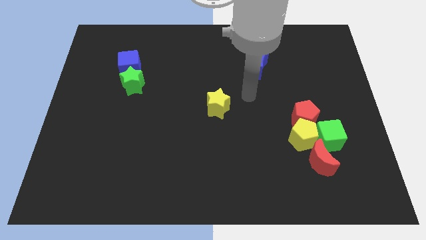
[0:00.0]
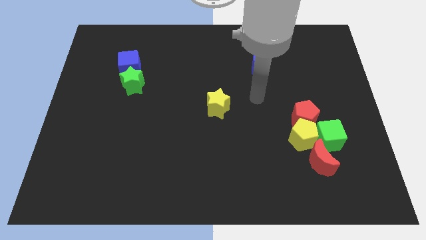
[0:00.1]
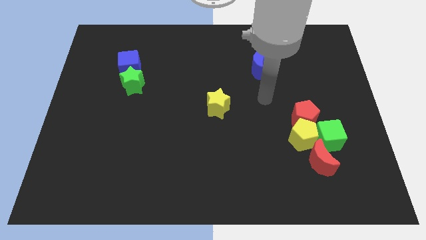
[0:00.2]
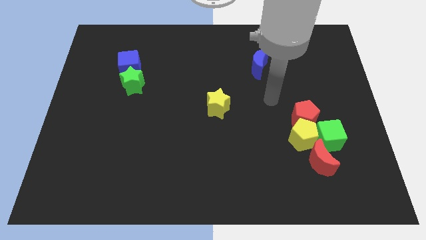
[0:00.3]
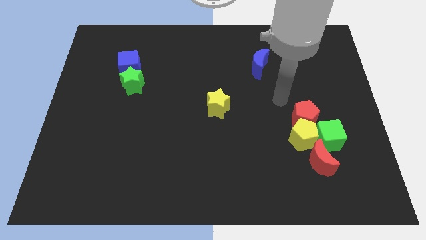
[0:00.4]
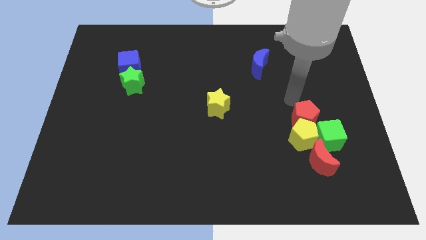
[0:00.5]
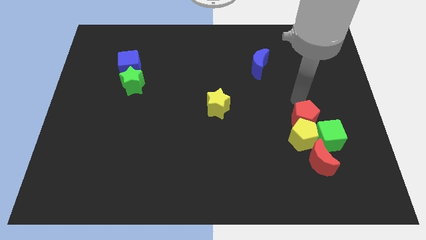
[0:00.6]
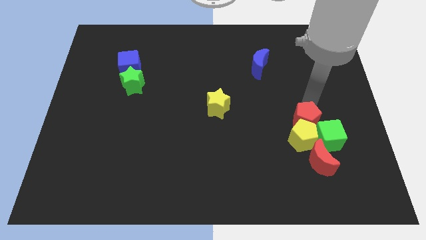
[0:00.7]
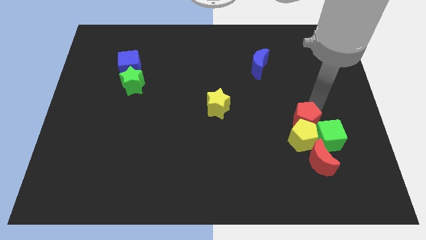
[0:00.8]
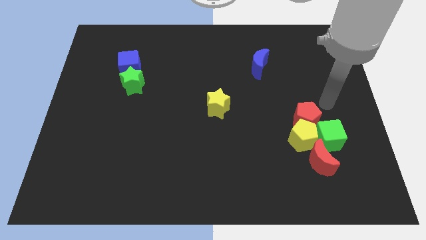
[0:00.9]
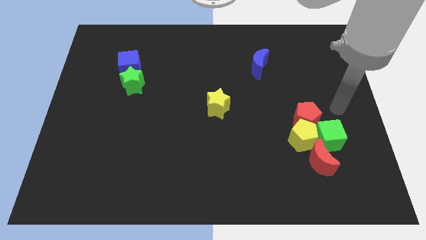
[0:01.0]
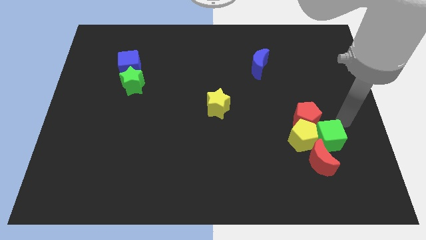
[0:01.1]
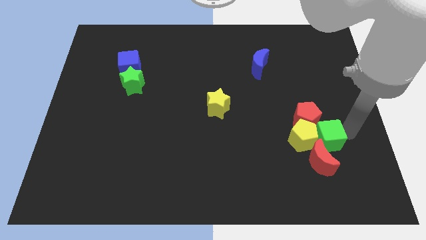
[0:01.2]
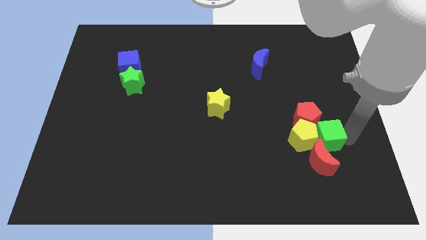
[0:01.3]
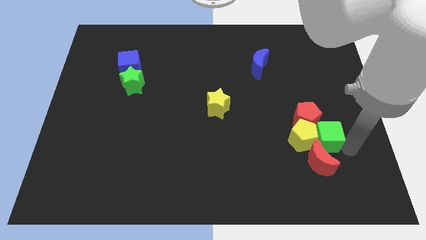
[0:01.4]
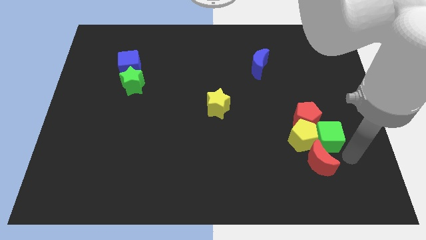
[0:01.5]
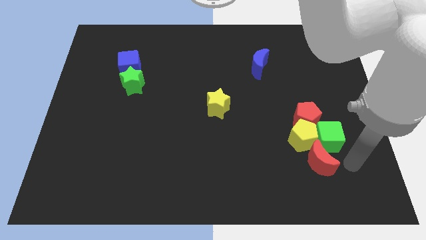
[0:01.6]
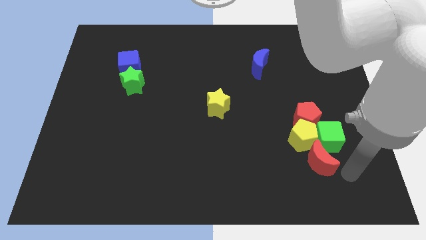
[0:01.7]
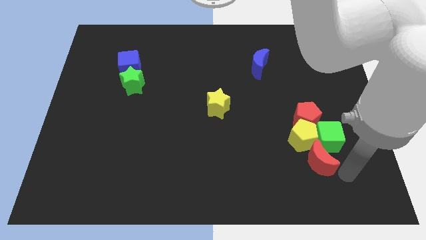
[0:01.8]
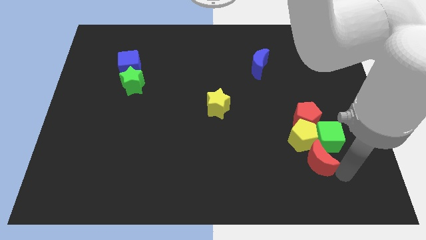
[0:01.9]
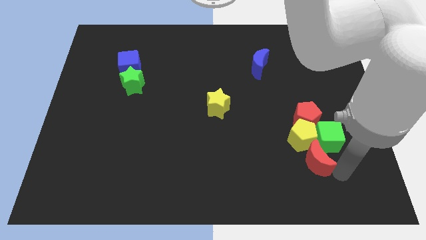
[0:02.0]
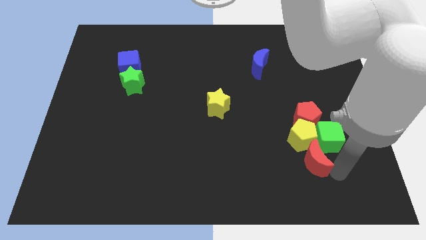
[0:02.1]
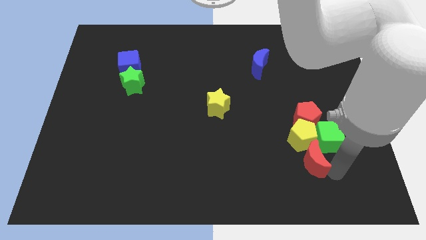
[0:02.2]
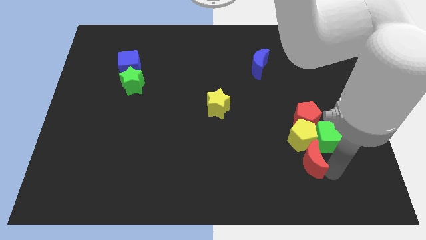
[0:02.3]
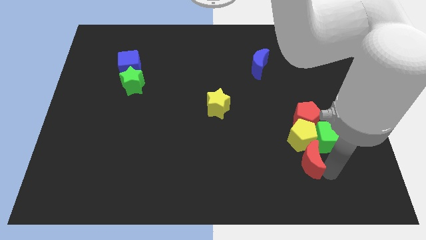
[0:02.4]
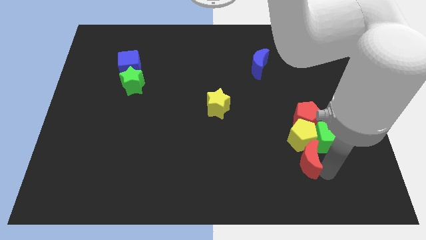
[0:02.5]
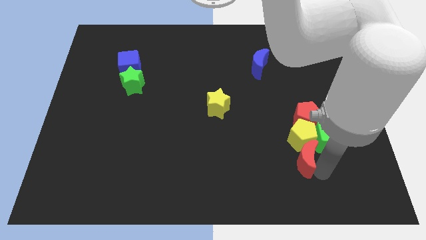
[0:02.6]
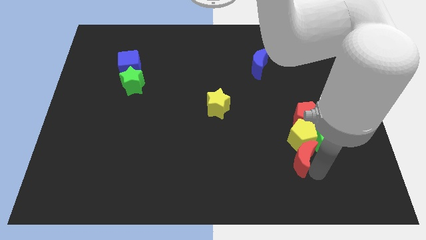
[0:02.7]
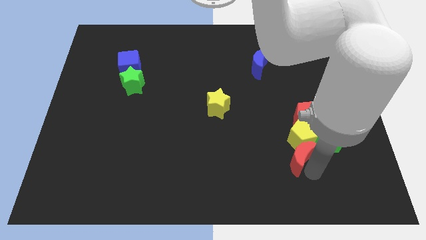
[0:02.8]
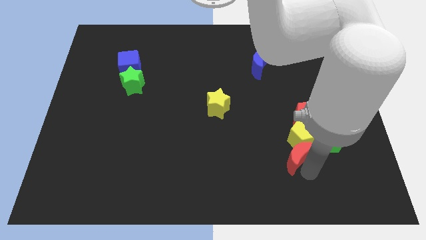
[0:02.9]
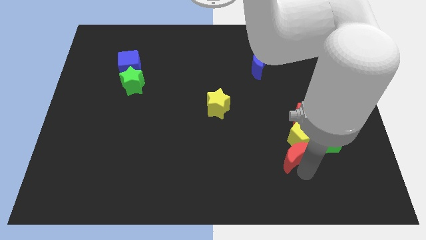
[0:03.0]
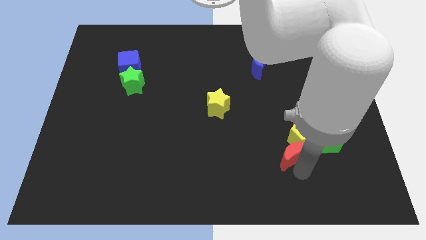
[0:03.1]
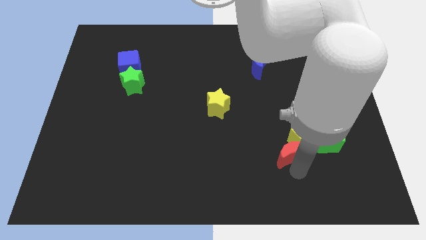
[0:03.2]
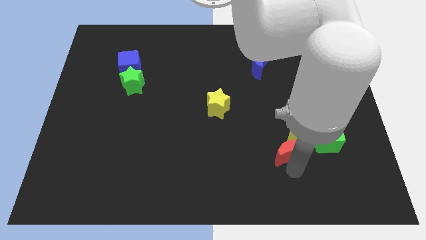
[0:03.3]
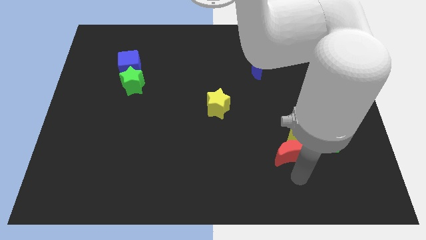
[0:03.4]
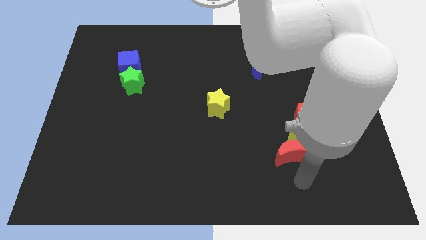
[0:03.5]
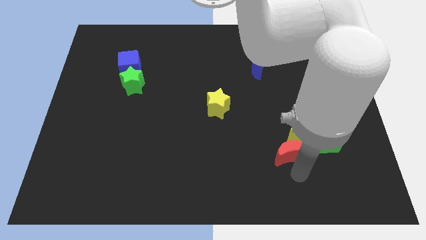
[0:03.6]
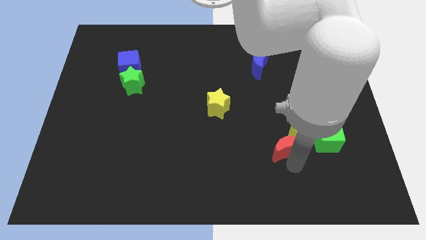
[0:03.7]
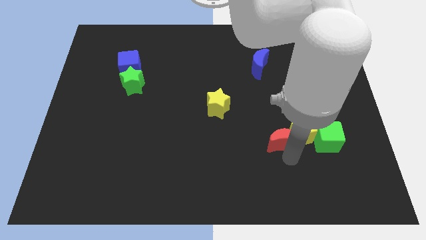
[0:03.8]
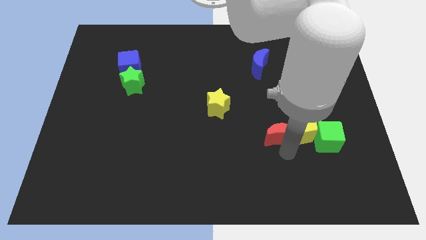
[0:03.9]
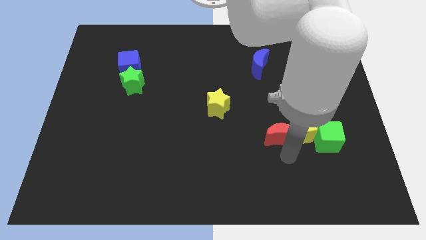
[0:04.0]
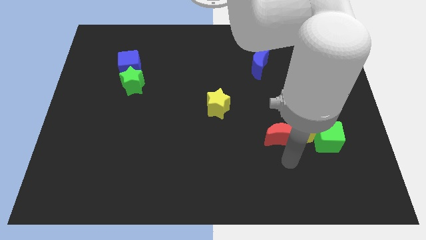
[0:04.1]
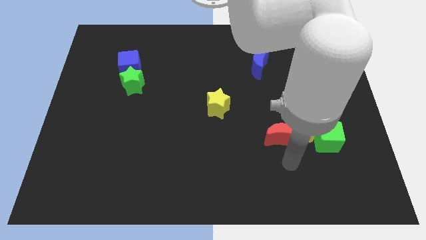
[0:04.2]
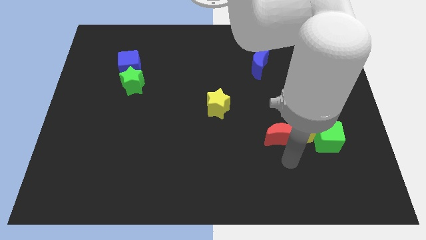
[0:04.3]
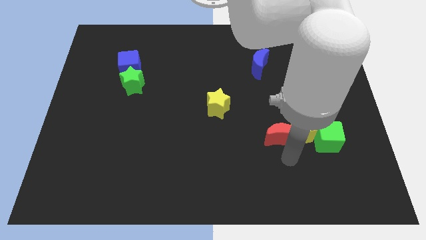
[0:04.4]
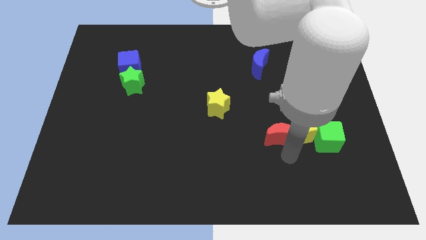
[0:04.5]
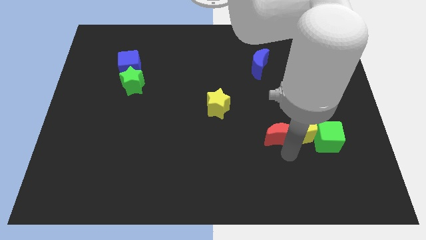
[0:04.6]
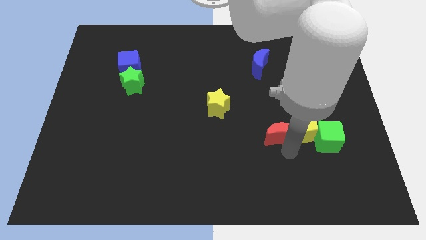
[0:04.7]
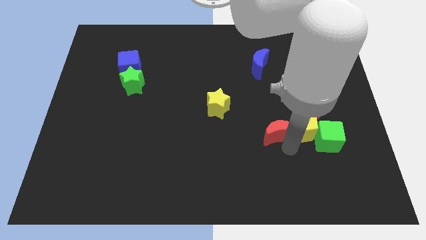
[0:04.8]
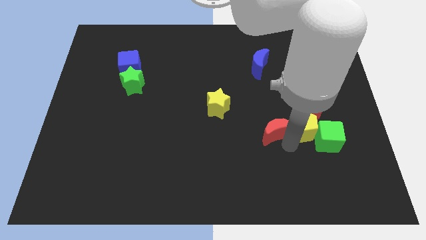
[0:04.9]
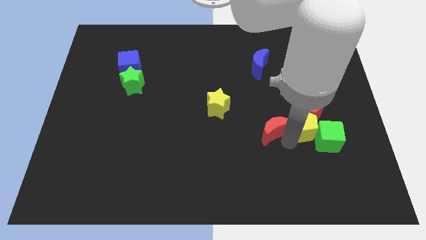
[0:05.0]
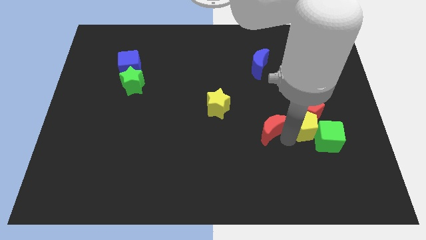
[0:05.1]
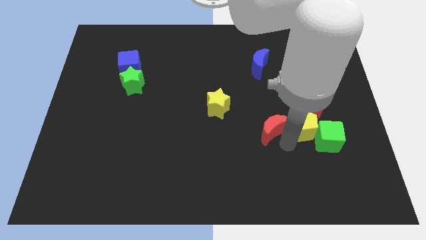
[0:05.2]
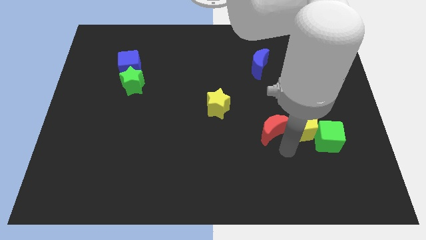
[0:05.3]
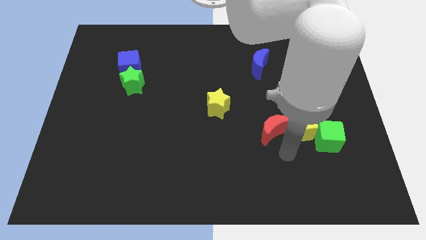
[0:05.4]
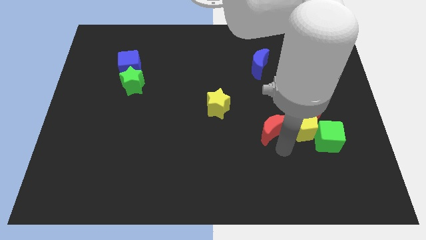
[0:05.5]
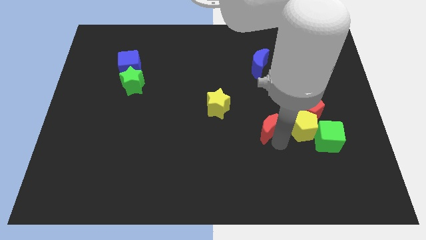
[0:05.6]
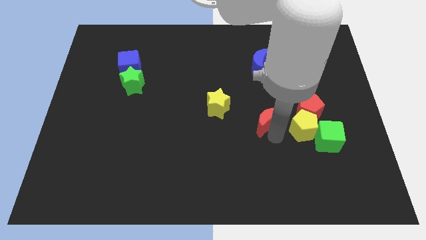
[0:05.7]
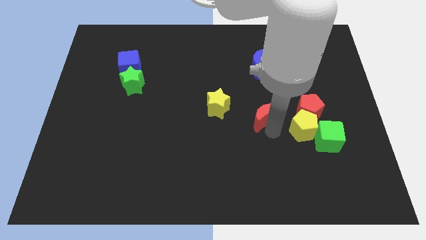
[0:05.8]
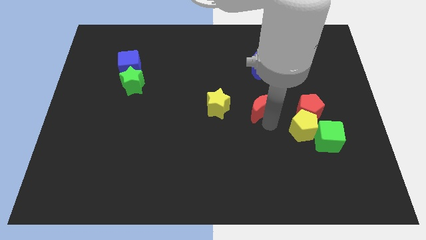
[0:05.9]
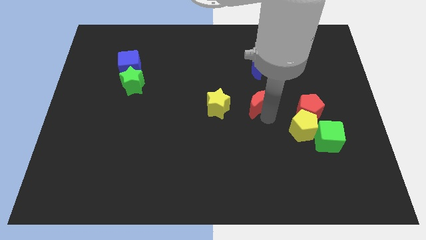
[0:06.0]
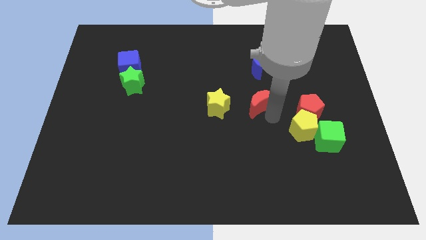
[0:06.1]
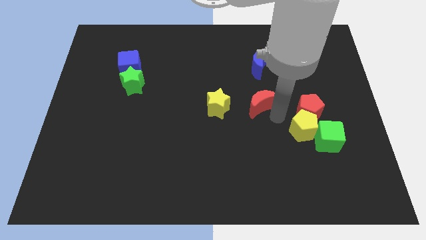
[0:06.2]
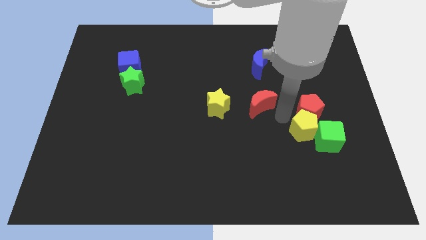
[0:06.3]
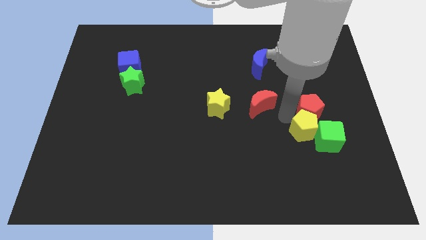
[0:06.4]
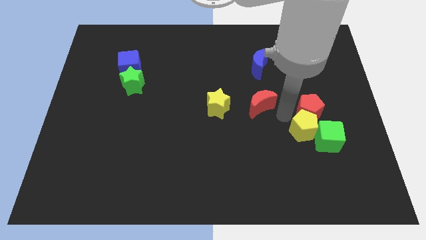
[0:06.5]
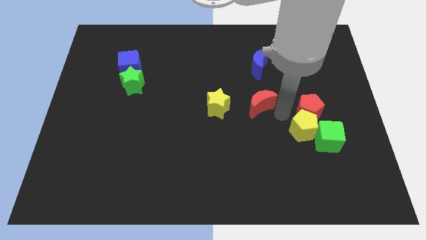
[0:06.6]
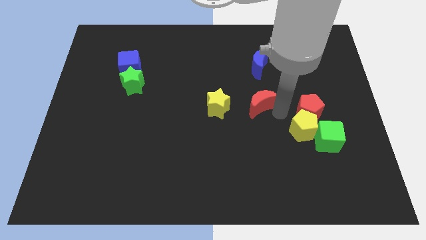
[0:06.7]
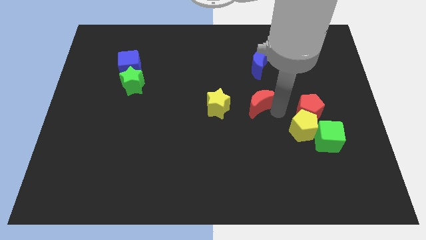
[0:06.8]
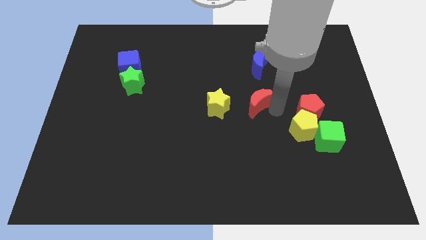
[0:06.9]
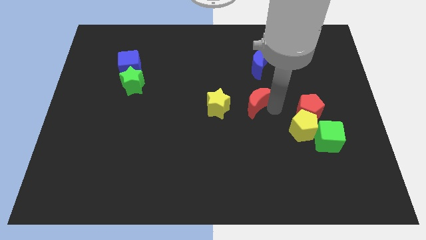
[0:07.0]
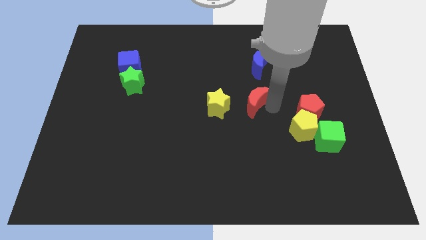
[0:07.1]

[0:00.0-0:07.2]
push the red moon diagonally upwards and to the left

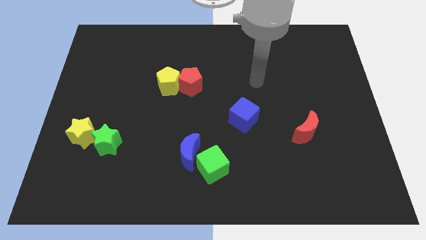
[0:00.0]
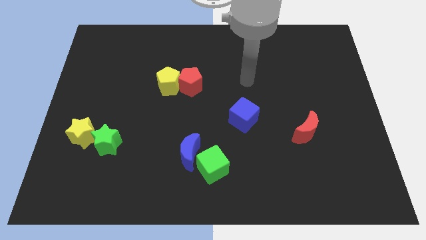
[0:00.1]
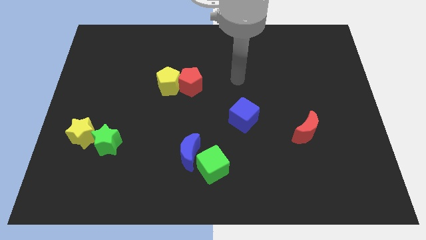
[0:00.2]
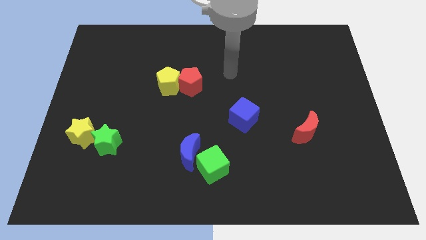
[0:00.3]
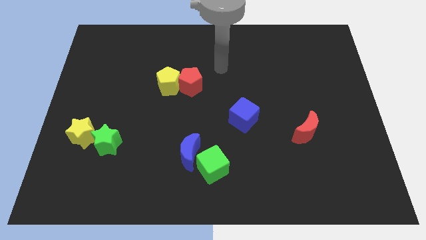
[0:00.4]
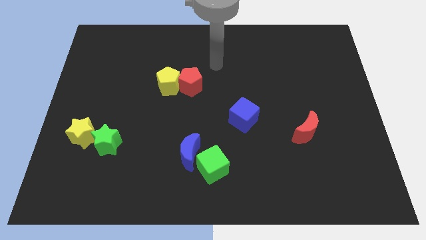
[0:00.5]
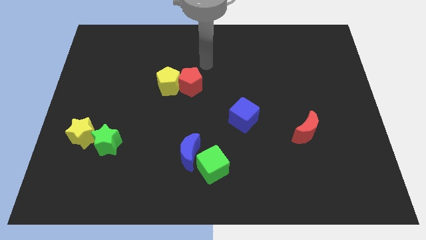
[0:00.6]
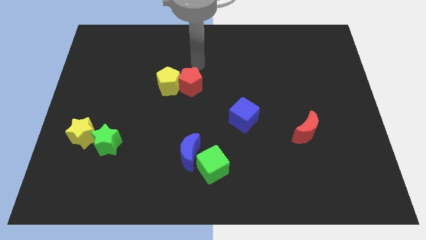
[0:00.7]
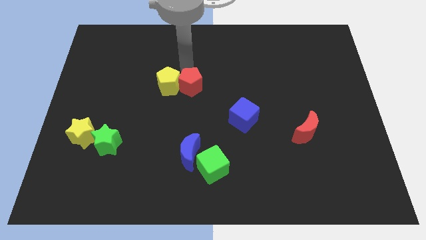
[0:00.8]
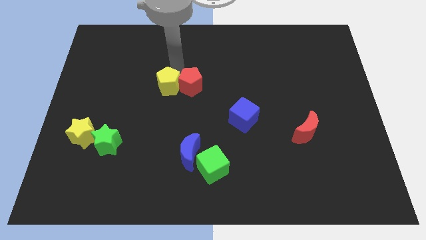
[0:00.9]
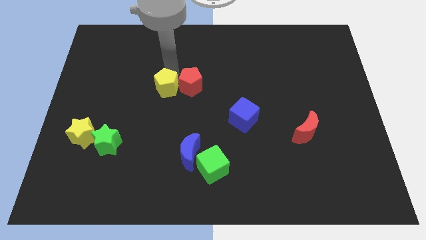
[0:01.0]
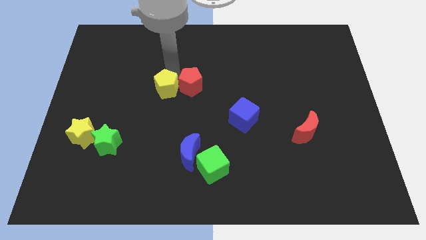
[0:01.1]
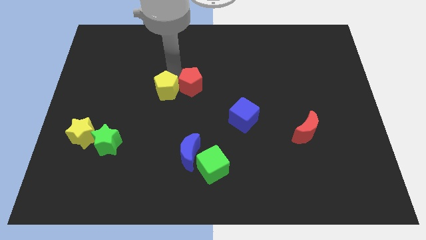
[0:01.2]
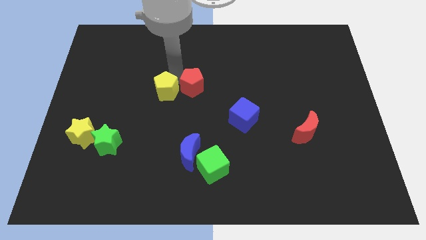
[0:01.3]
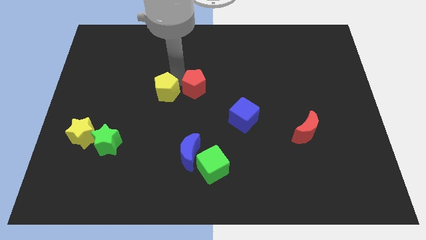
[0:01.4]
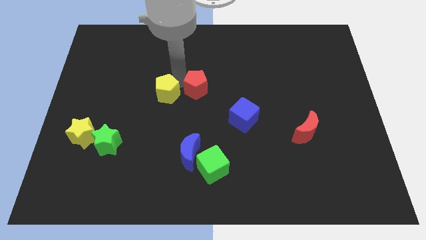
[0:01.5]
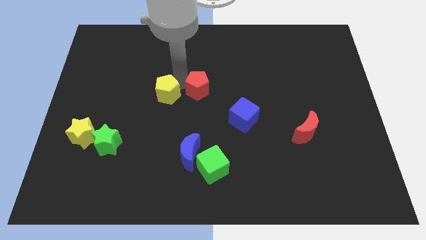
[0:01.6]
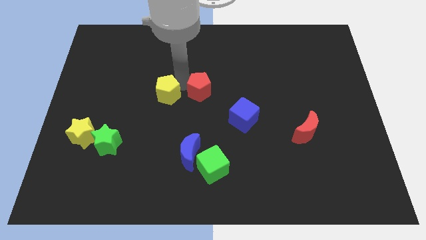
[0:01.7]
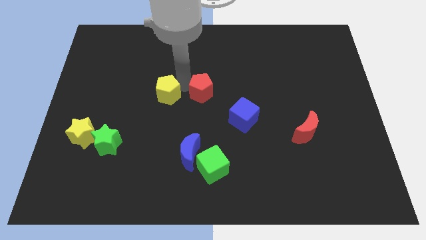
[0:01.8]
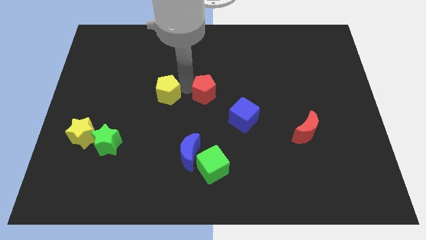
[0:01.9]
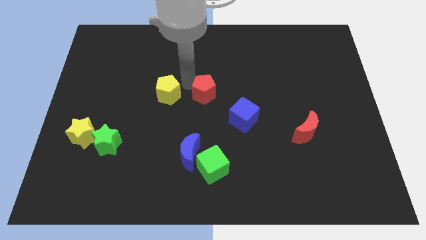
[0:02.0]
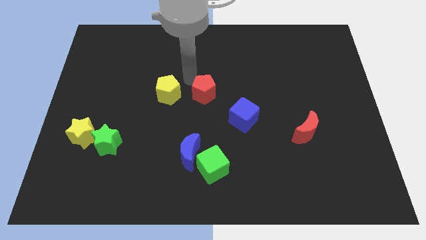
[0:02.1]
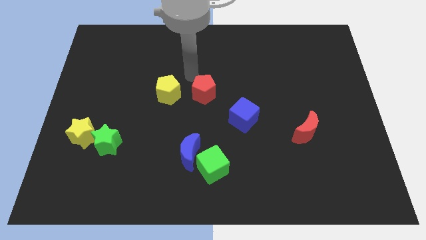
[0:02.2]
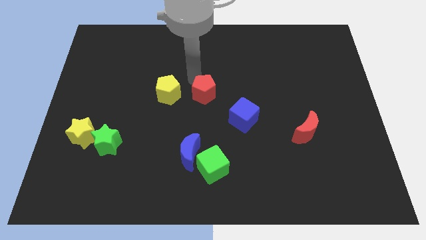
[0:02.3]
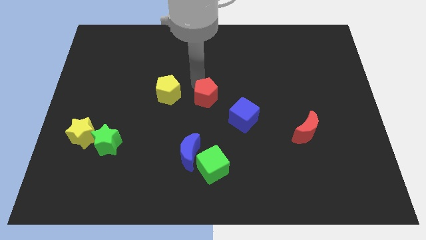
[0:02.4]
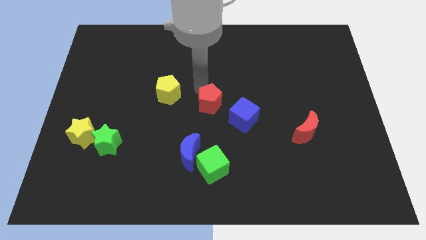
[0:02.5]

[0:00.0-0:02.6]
move the red pentagon a bit downwards and then to the right
